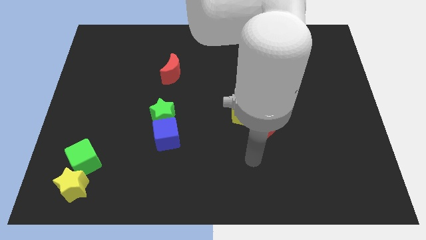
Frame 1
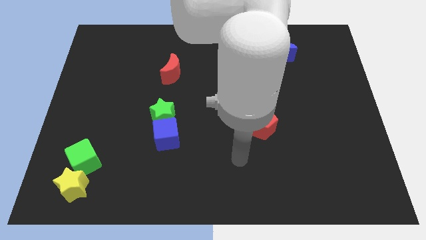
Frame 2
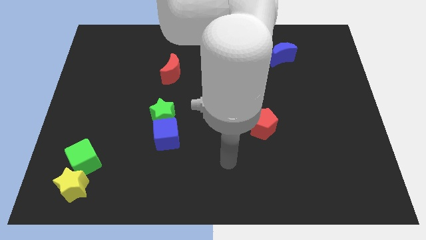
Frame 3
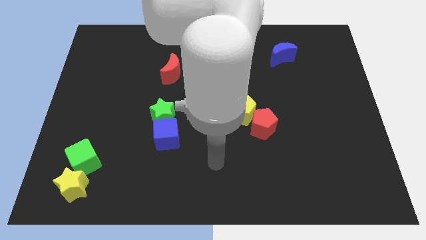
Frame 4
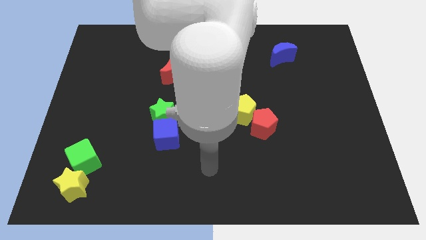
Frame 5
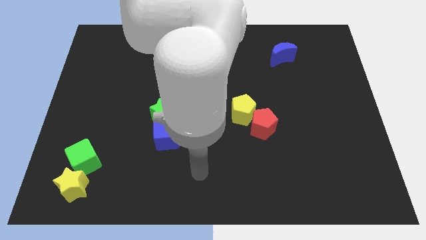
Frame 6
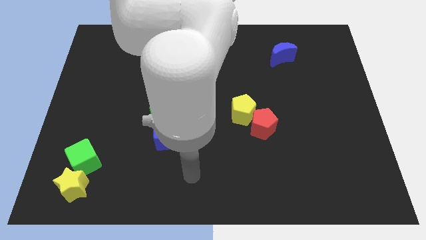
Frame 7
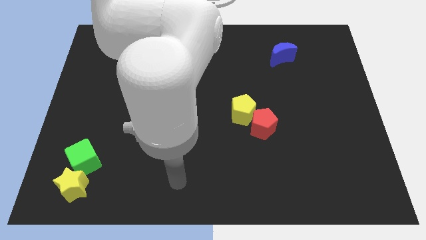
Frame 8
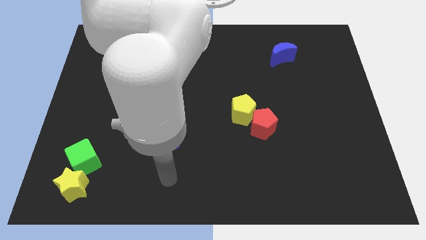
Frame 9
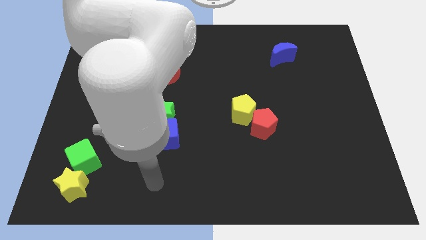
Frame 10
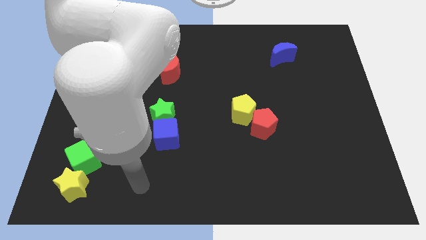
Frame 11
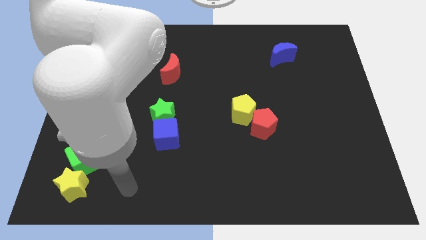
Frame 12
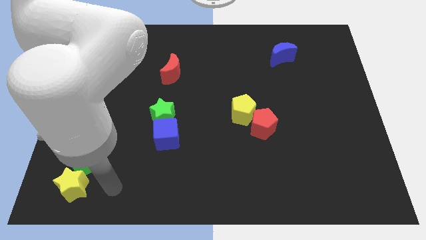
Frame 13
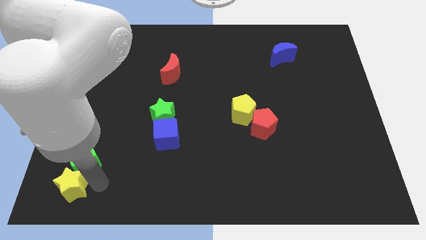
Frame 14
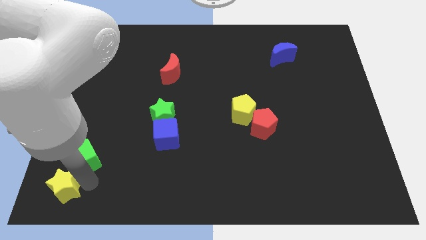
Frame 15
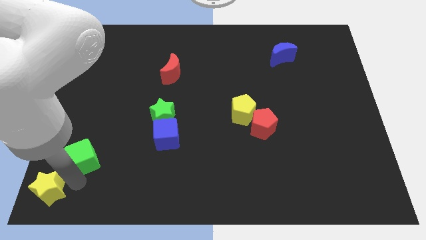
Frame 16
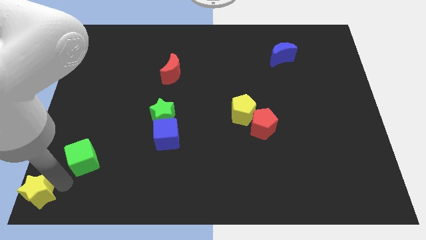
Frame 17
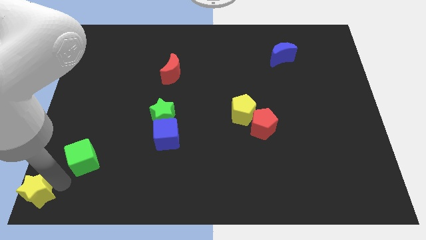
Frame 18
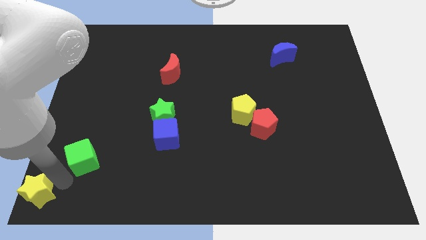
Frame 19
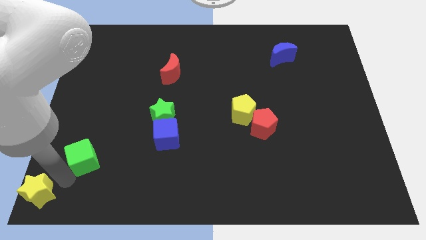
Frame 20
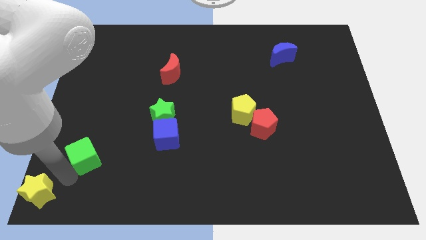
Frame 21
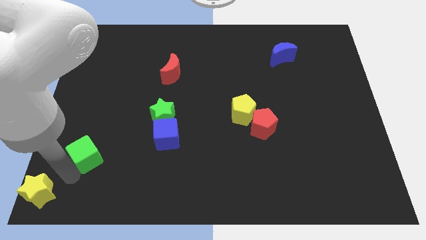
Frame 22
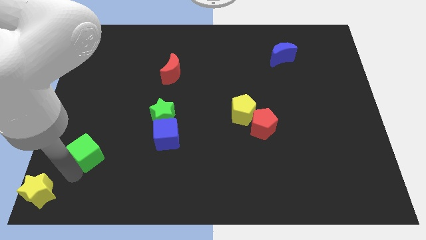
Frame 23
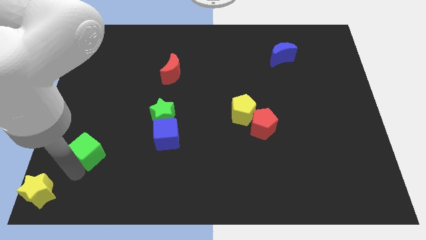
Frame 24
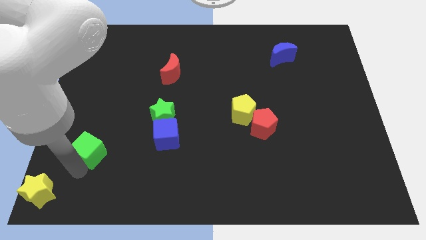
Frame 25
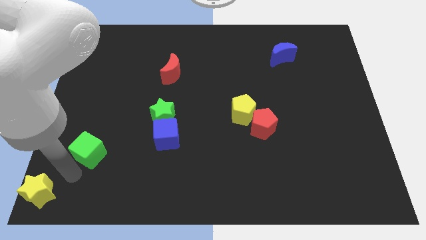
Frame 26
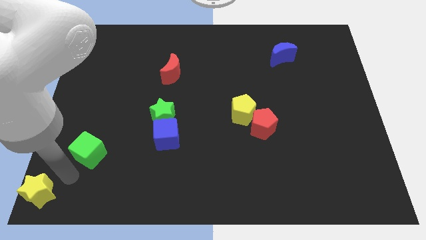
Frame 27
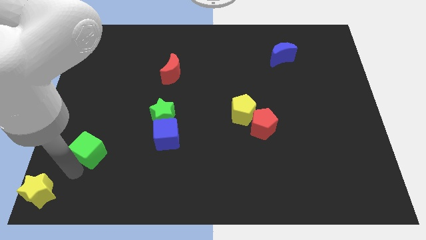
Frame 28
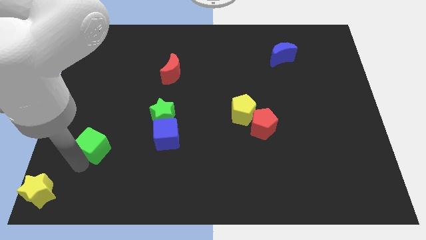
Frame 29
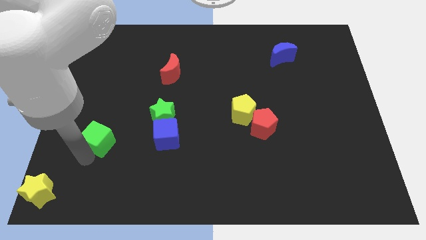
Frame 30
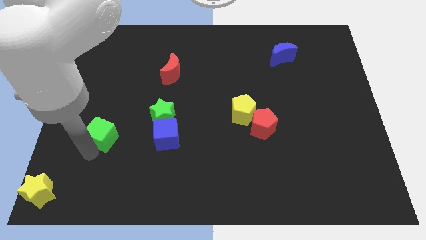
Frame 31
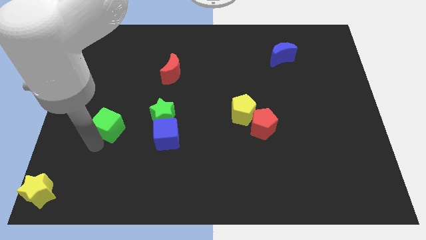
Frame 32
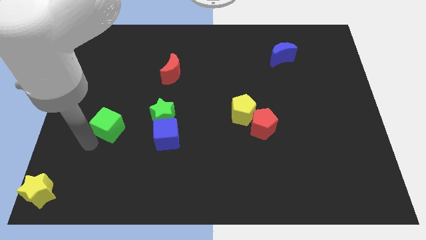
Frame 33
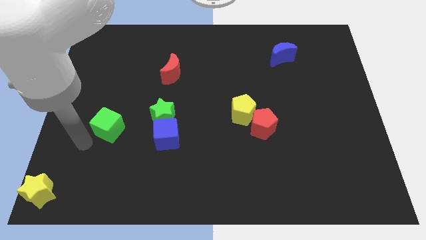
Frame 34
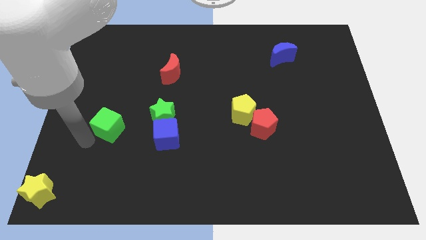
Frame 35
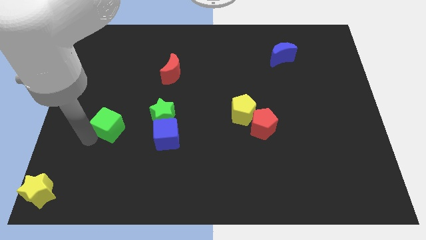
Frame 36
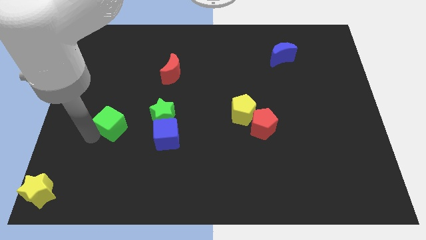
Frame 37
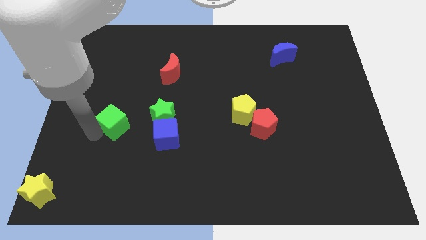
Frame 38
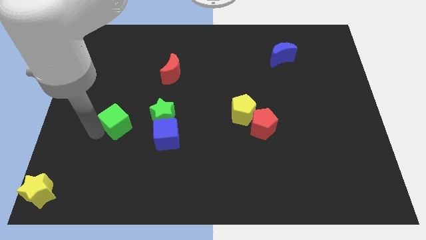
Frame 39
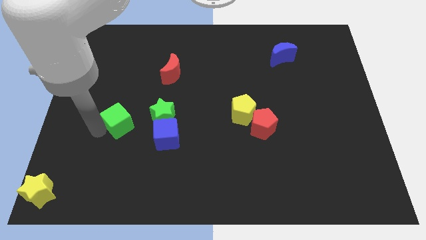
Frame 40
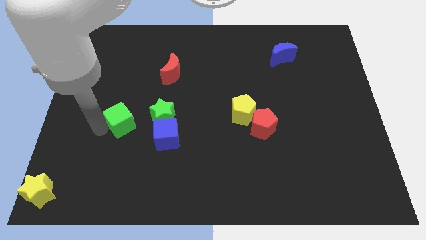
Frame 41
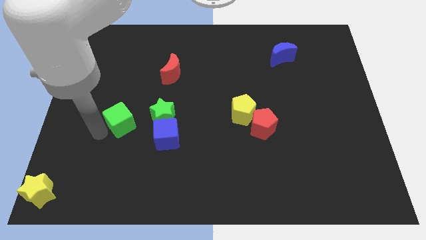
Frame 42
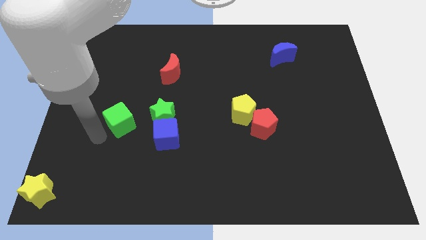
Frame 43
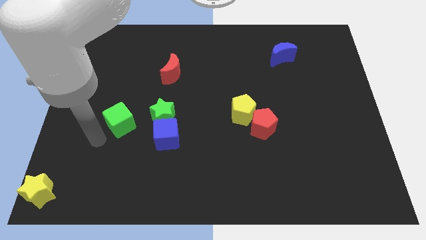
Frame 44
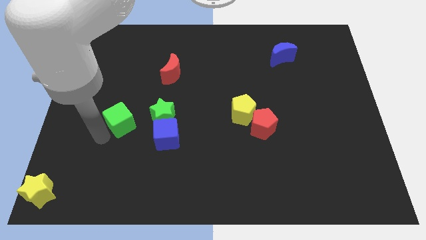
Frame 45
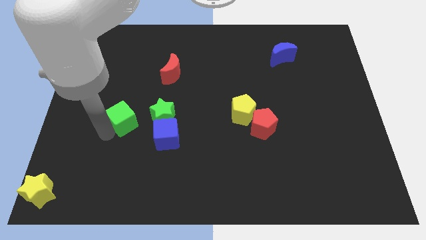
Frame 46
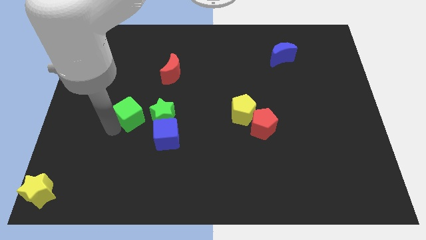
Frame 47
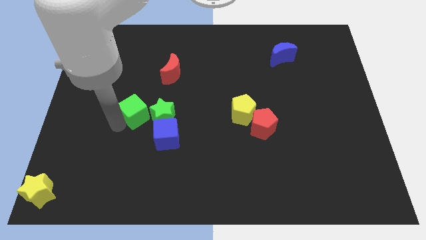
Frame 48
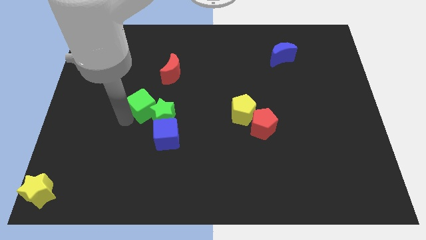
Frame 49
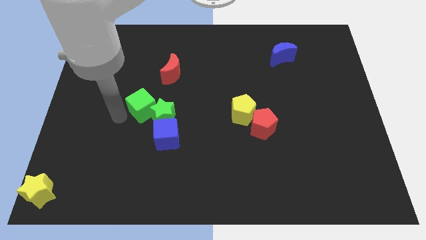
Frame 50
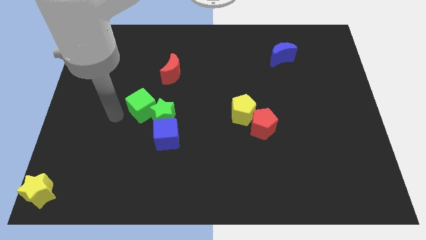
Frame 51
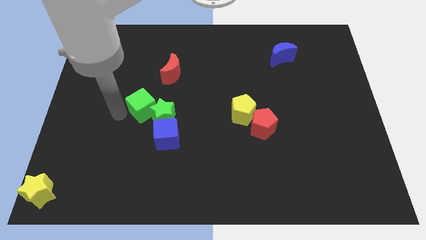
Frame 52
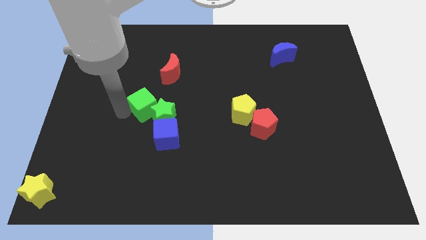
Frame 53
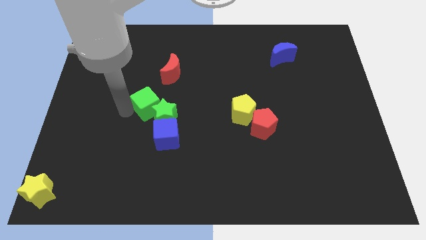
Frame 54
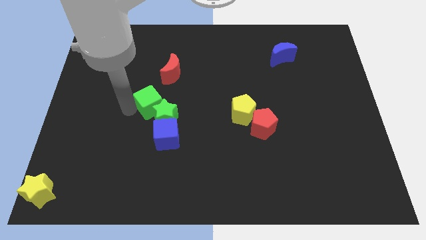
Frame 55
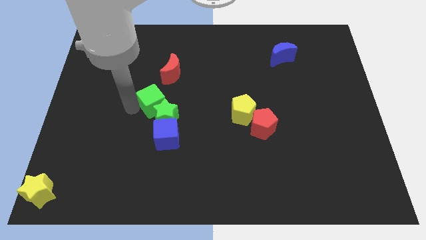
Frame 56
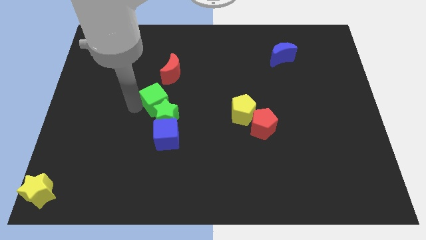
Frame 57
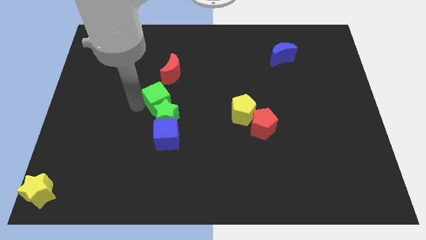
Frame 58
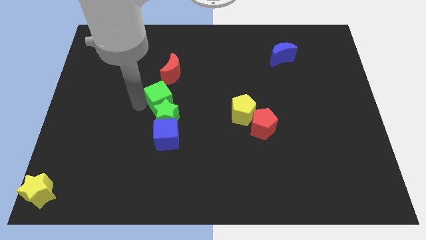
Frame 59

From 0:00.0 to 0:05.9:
push the green cube to the center
